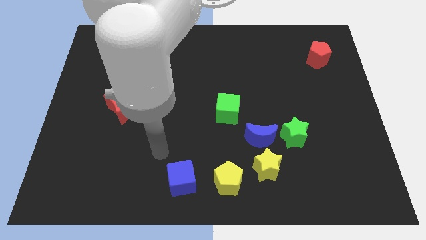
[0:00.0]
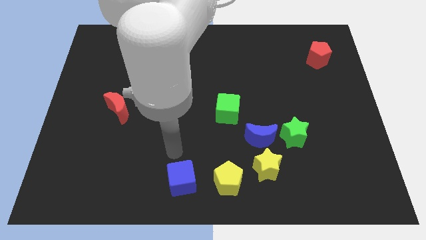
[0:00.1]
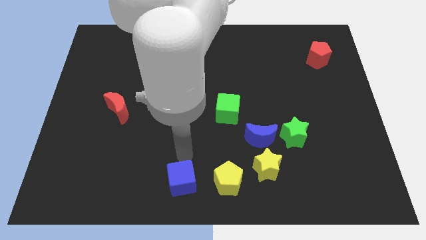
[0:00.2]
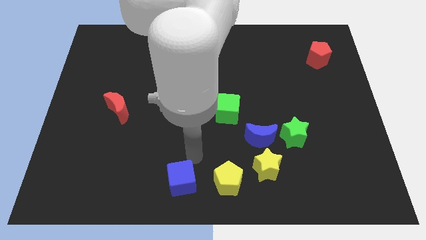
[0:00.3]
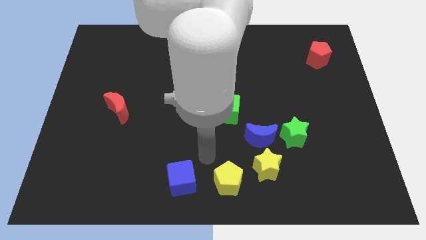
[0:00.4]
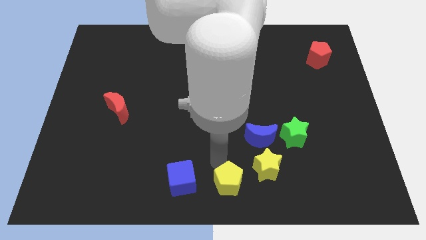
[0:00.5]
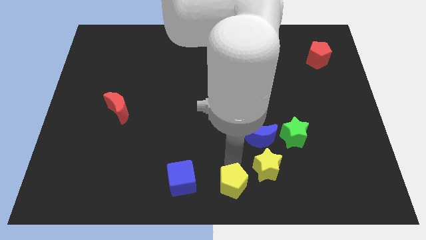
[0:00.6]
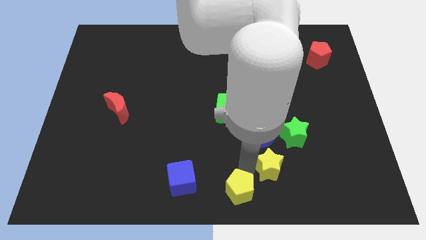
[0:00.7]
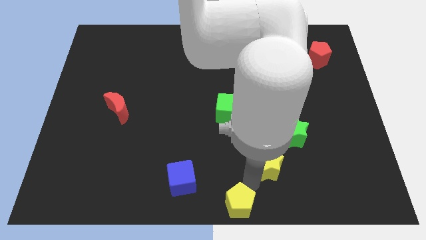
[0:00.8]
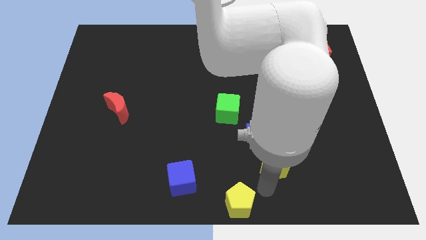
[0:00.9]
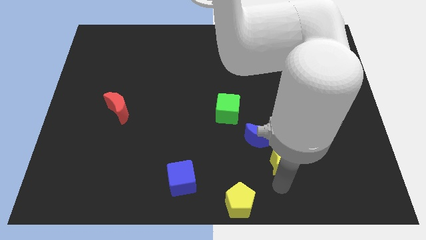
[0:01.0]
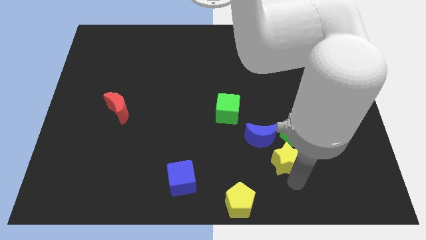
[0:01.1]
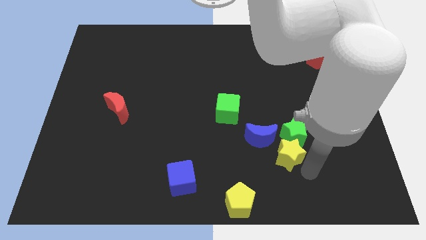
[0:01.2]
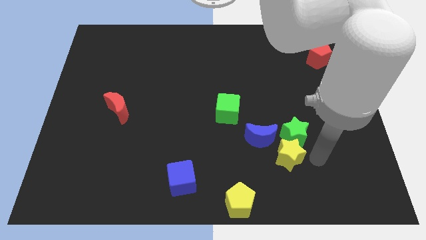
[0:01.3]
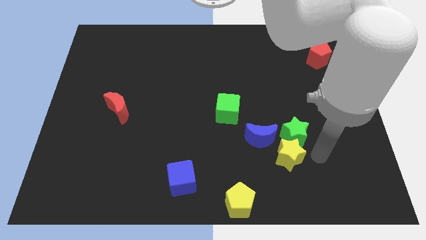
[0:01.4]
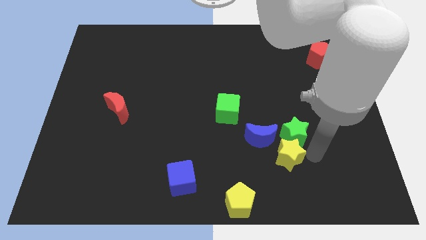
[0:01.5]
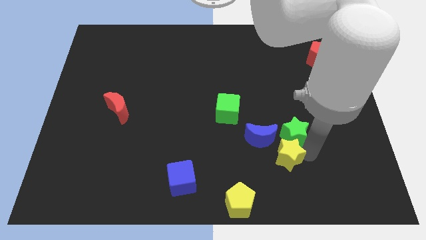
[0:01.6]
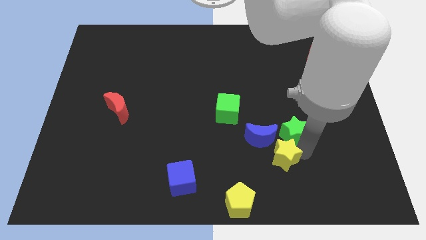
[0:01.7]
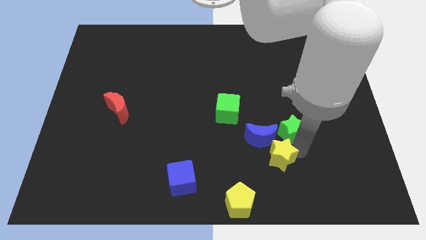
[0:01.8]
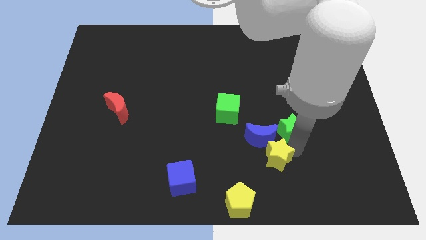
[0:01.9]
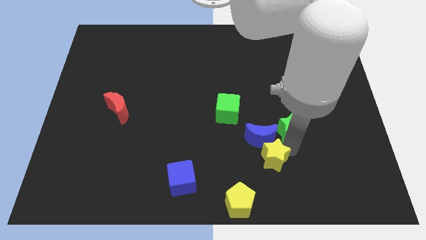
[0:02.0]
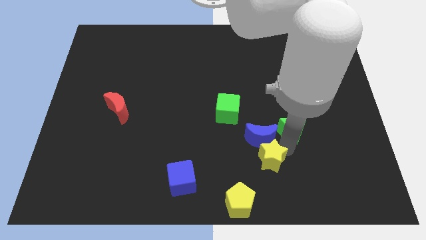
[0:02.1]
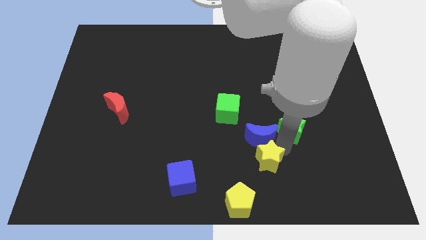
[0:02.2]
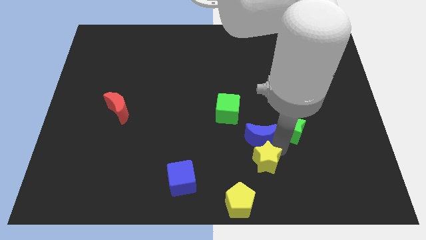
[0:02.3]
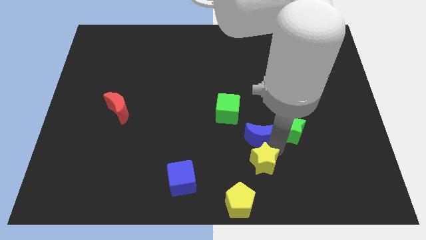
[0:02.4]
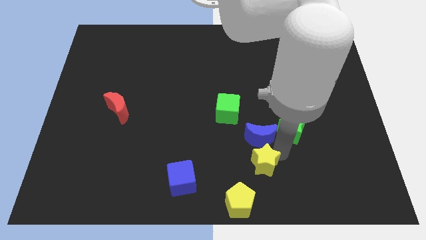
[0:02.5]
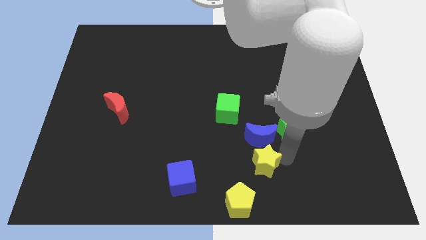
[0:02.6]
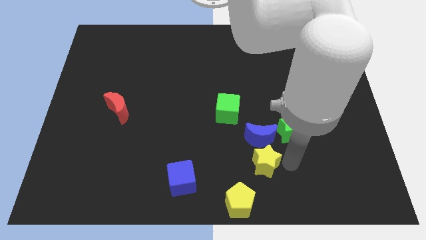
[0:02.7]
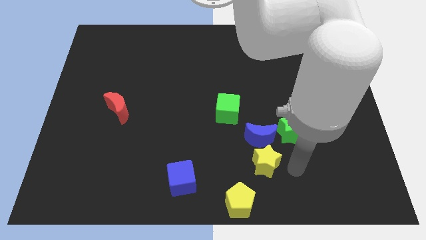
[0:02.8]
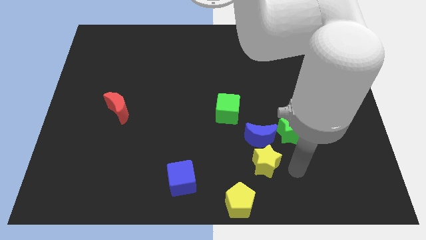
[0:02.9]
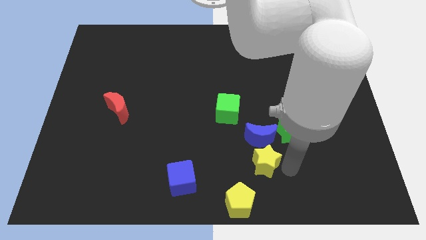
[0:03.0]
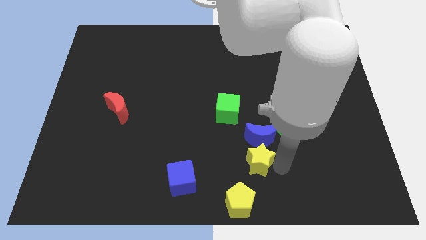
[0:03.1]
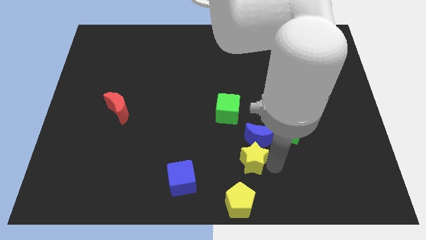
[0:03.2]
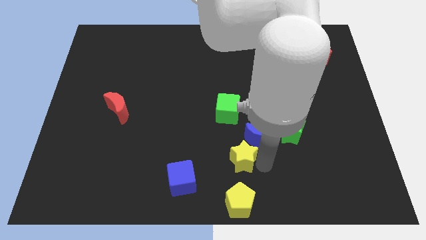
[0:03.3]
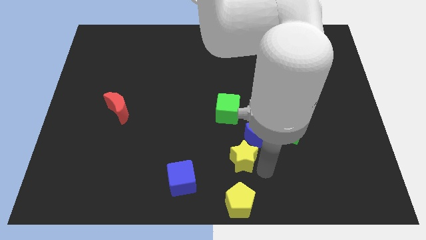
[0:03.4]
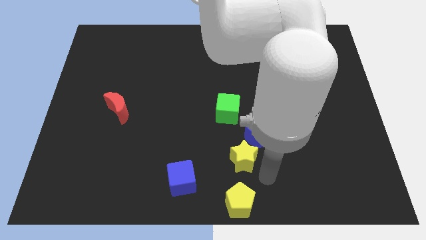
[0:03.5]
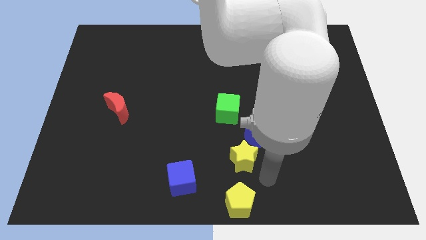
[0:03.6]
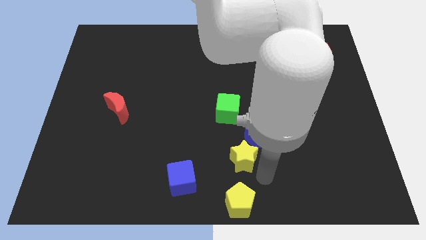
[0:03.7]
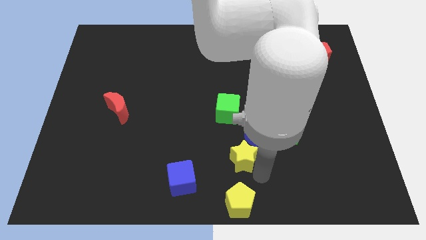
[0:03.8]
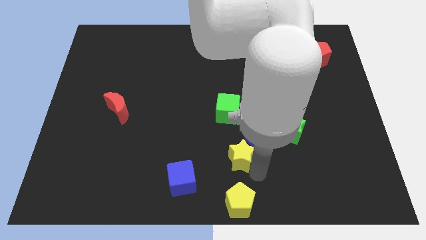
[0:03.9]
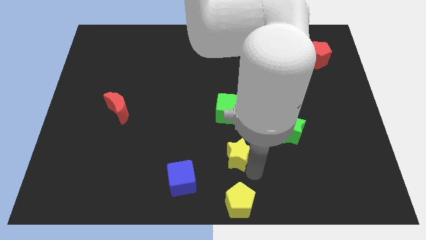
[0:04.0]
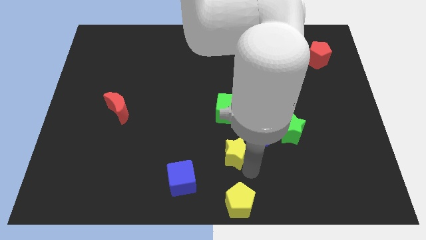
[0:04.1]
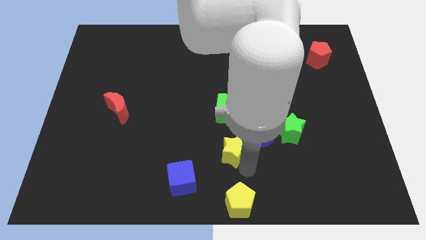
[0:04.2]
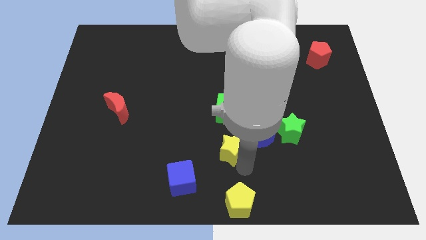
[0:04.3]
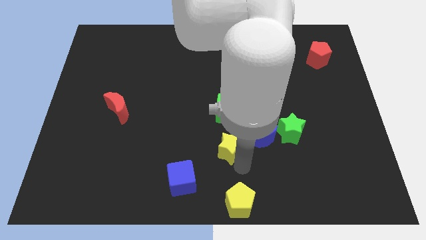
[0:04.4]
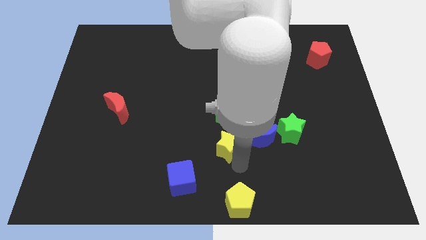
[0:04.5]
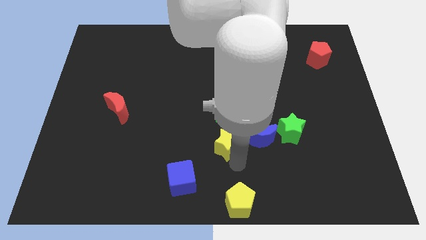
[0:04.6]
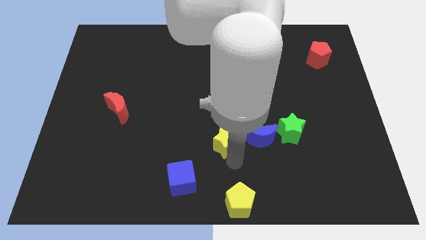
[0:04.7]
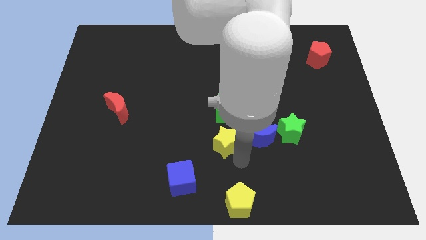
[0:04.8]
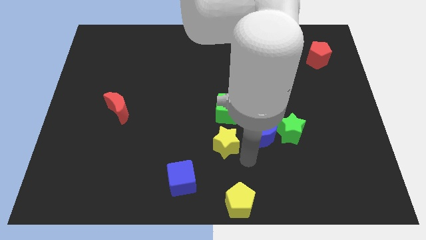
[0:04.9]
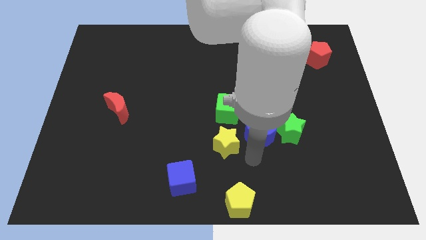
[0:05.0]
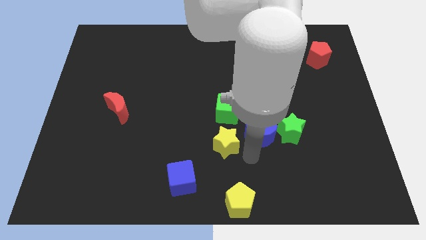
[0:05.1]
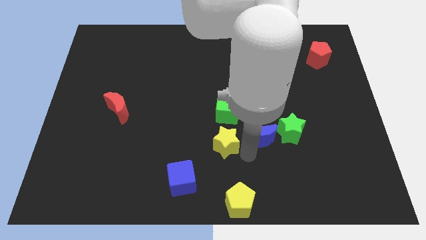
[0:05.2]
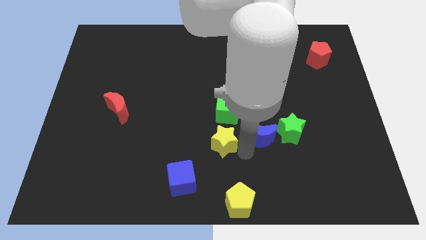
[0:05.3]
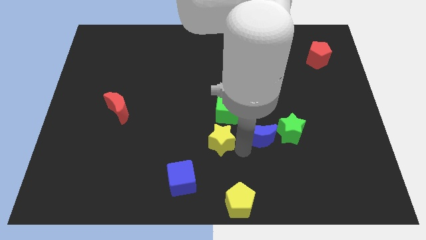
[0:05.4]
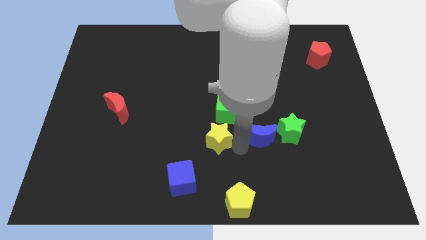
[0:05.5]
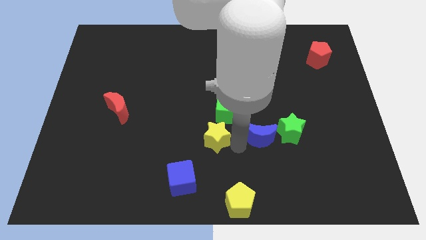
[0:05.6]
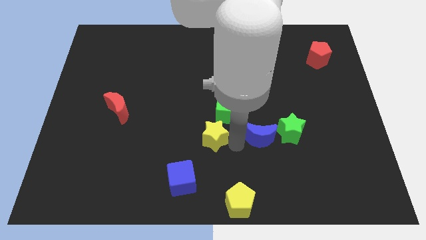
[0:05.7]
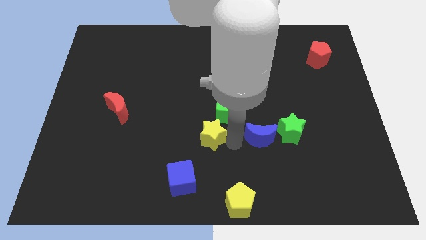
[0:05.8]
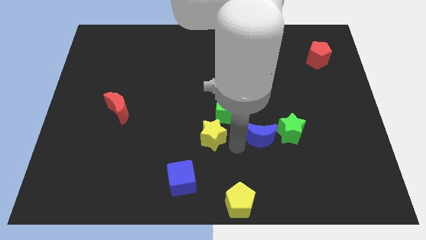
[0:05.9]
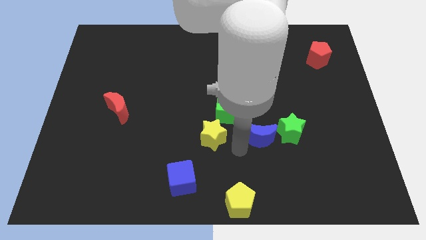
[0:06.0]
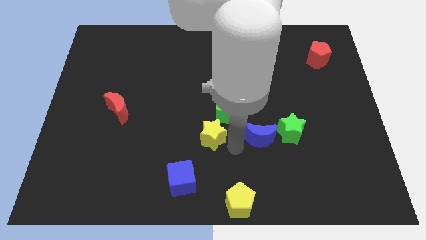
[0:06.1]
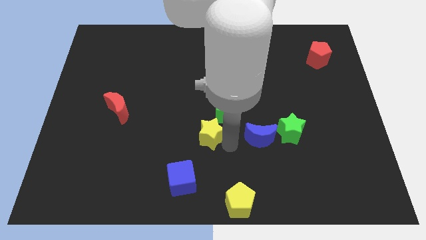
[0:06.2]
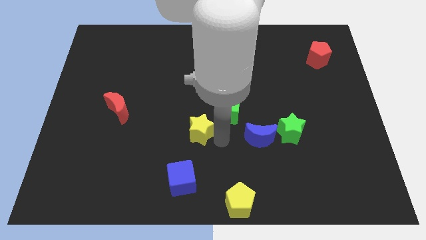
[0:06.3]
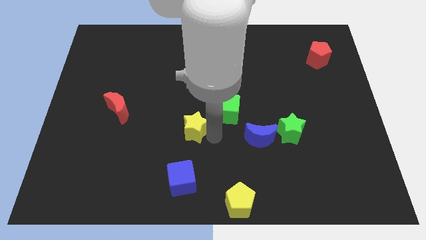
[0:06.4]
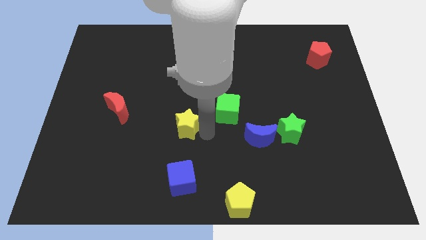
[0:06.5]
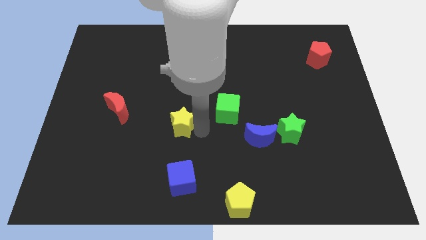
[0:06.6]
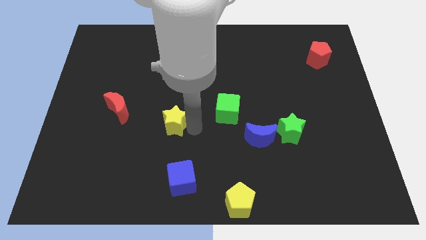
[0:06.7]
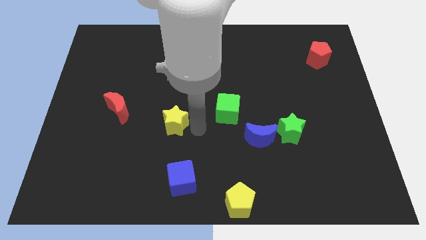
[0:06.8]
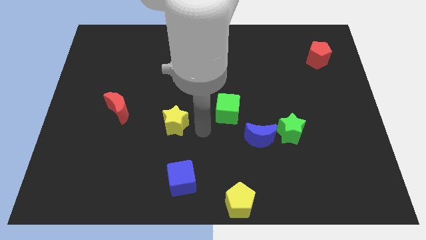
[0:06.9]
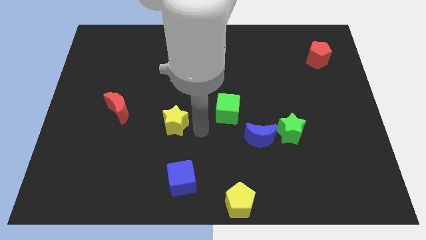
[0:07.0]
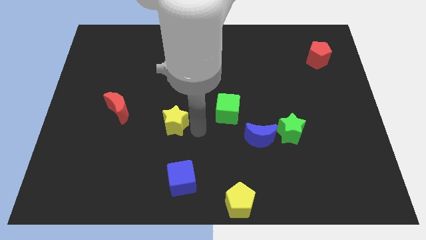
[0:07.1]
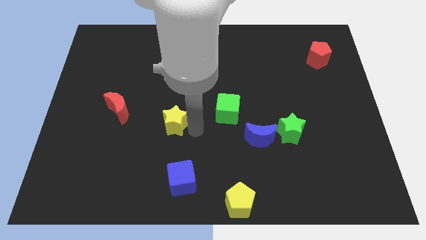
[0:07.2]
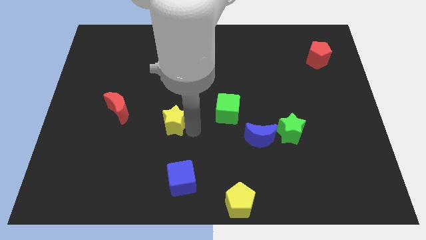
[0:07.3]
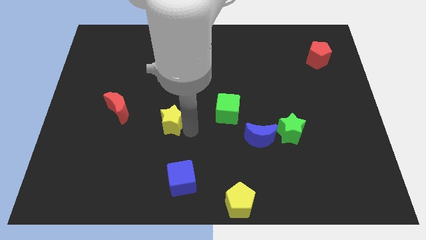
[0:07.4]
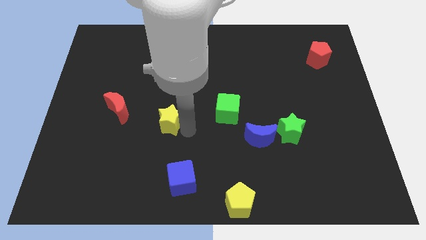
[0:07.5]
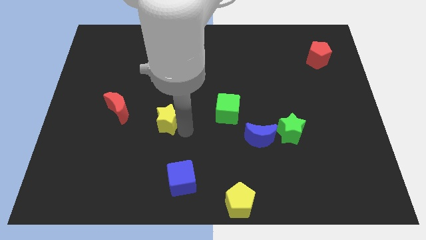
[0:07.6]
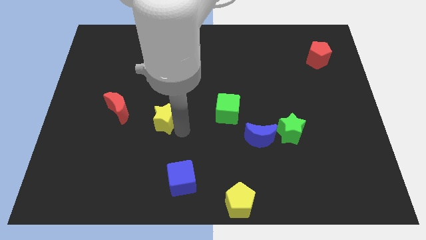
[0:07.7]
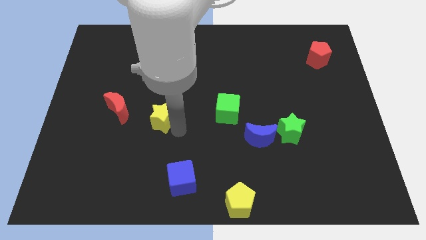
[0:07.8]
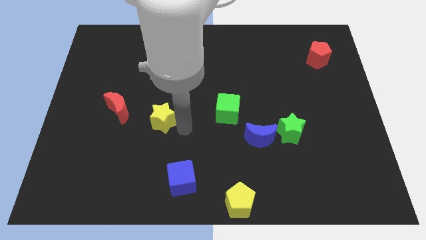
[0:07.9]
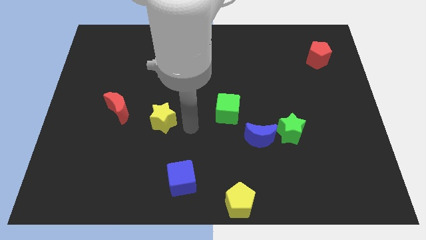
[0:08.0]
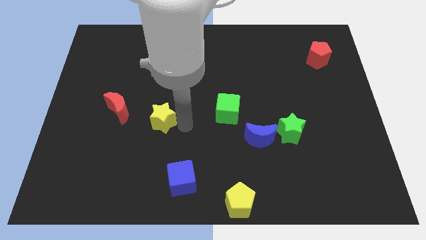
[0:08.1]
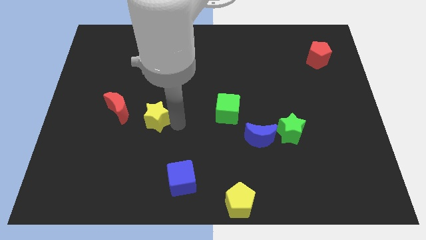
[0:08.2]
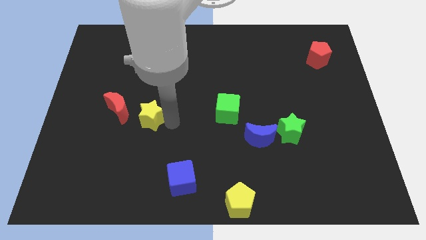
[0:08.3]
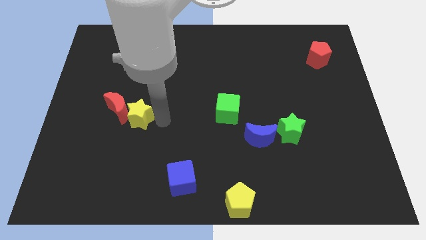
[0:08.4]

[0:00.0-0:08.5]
move the yellow star close to the red moon
